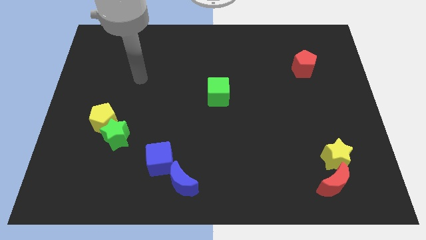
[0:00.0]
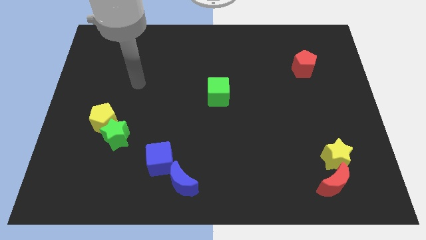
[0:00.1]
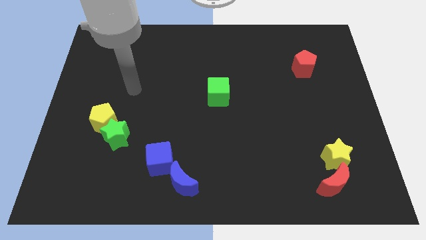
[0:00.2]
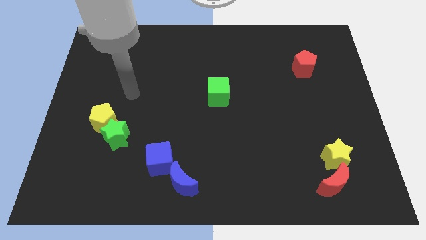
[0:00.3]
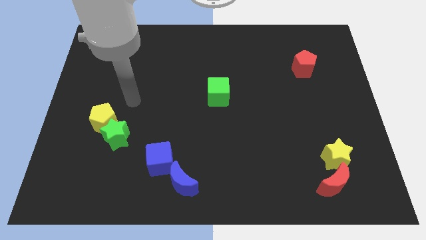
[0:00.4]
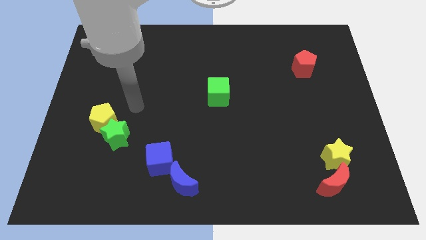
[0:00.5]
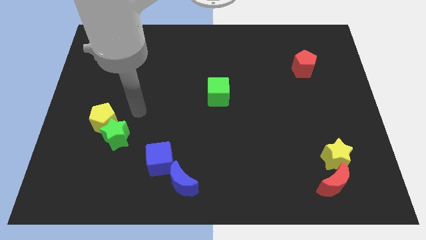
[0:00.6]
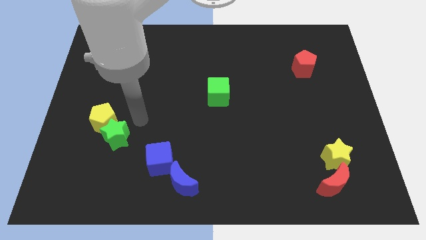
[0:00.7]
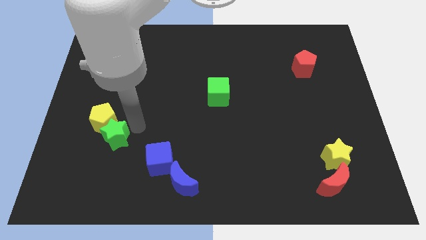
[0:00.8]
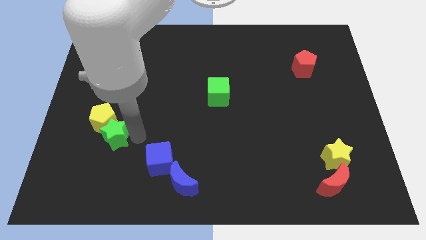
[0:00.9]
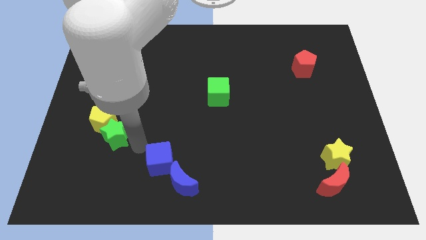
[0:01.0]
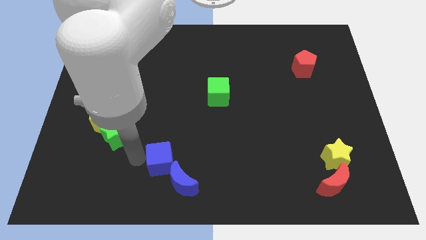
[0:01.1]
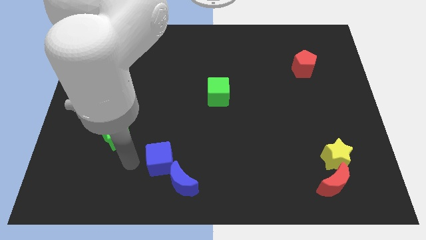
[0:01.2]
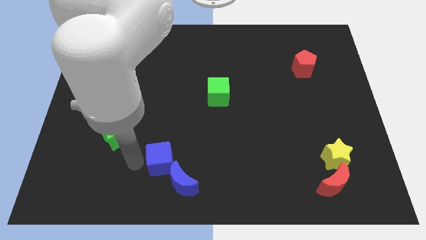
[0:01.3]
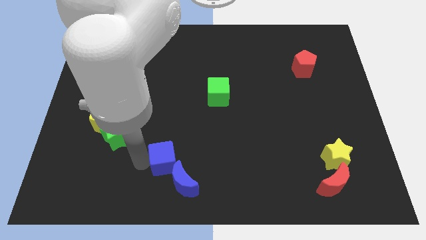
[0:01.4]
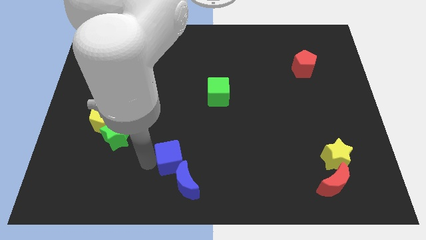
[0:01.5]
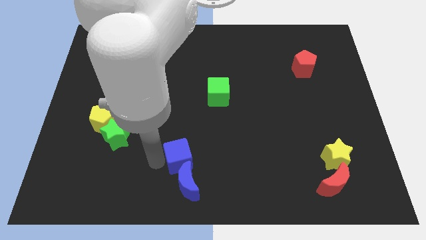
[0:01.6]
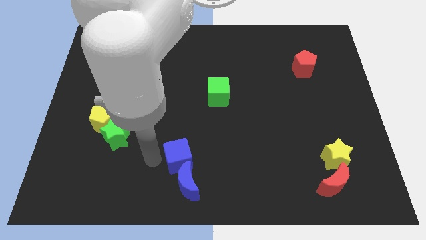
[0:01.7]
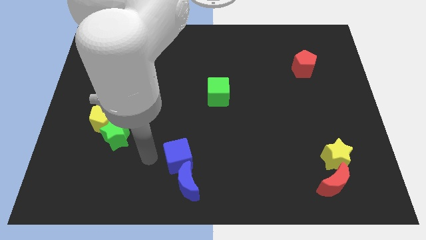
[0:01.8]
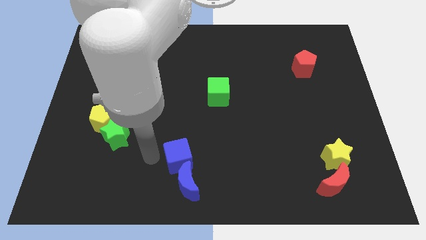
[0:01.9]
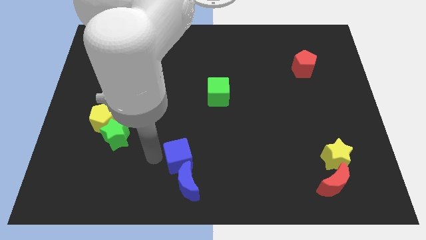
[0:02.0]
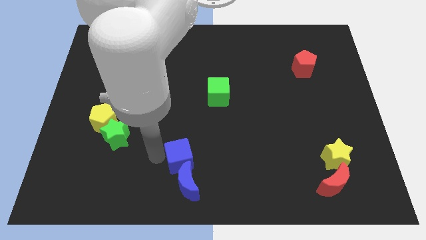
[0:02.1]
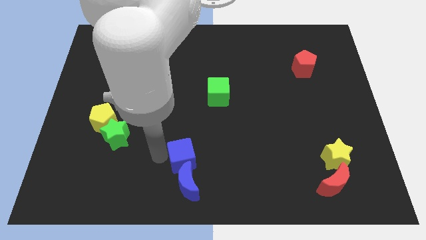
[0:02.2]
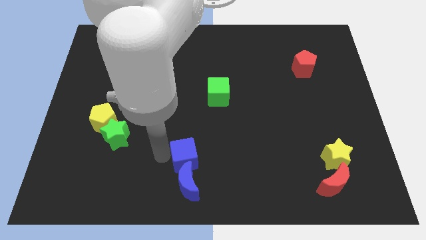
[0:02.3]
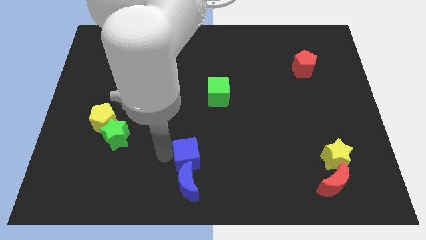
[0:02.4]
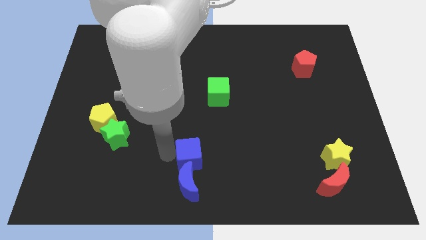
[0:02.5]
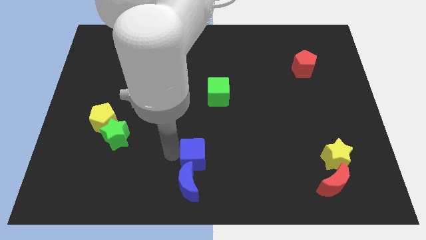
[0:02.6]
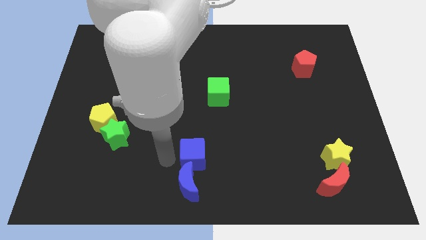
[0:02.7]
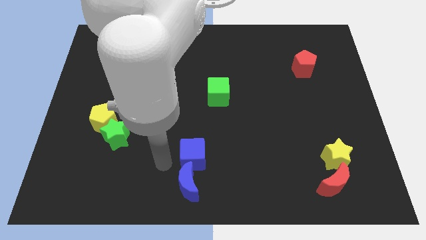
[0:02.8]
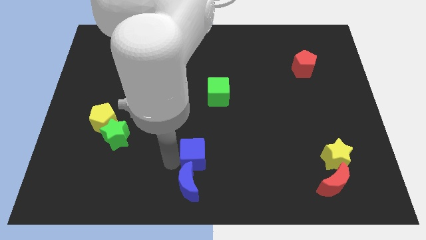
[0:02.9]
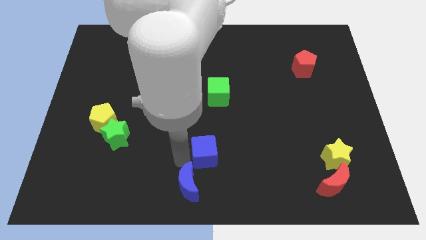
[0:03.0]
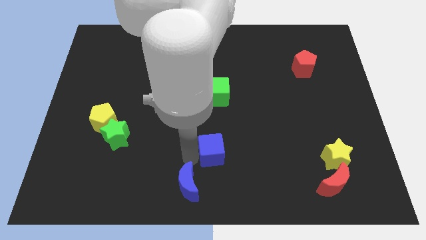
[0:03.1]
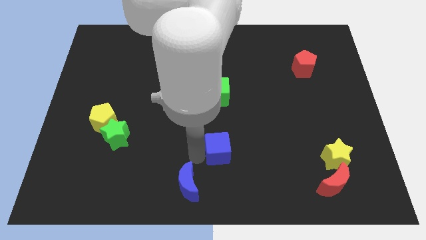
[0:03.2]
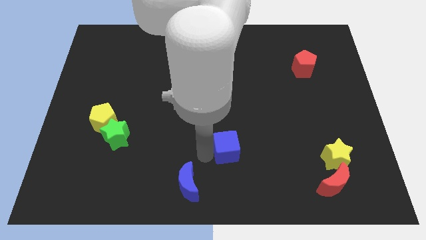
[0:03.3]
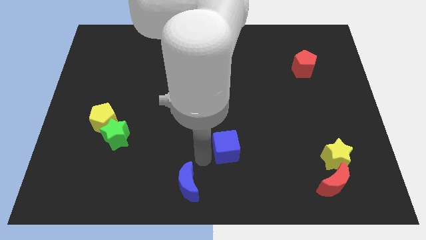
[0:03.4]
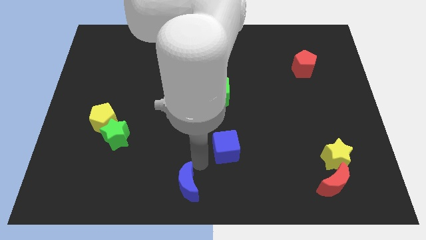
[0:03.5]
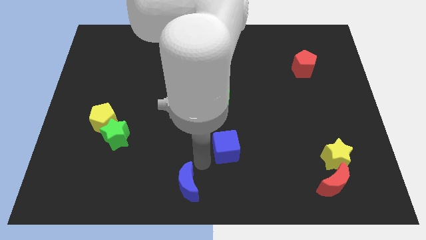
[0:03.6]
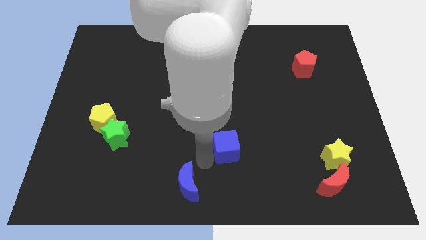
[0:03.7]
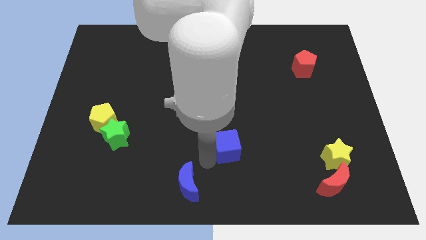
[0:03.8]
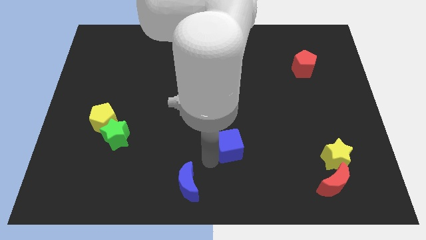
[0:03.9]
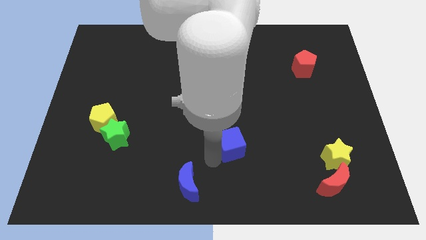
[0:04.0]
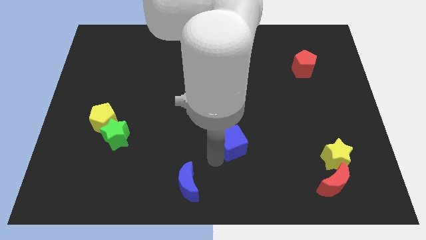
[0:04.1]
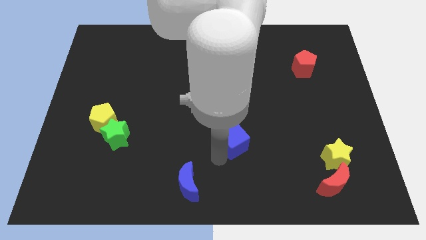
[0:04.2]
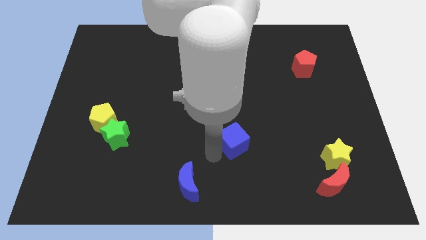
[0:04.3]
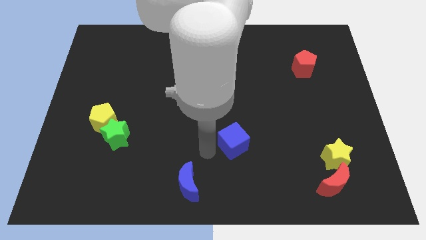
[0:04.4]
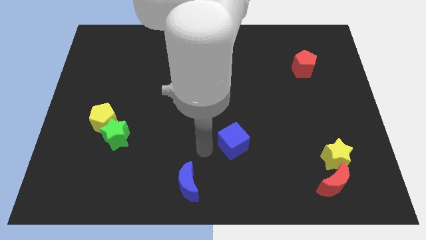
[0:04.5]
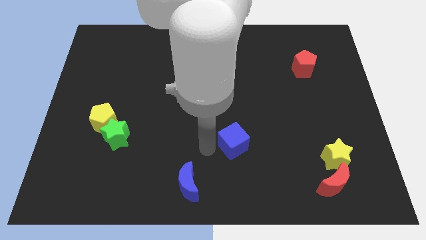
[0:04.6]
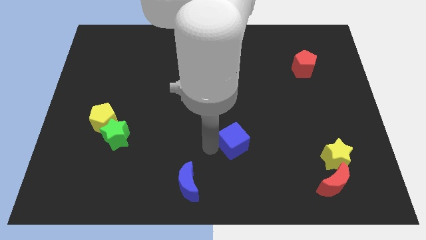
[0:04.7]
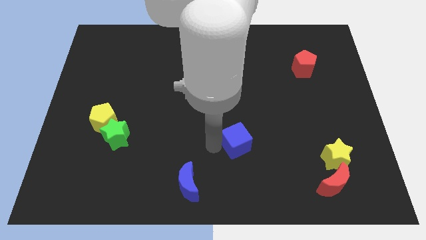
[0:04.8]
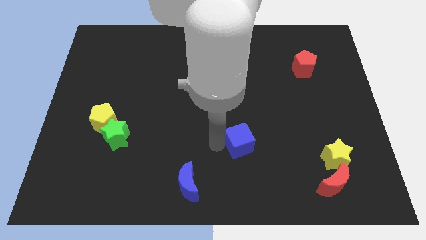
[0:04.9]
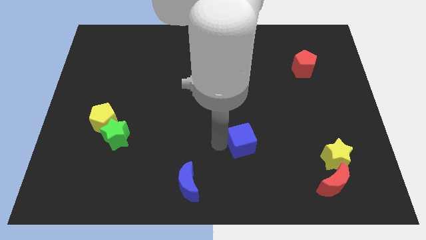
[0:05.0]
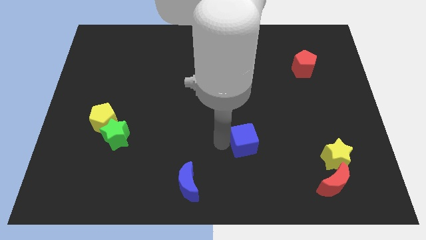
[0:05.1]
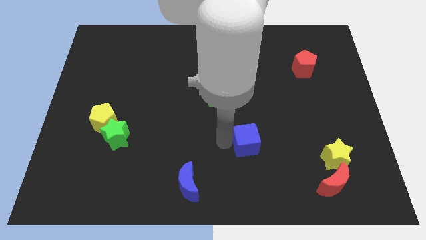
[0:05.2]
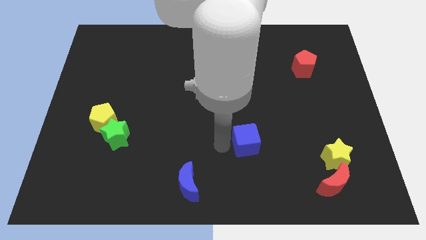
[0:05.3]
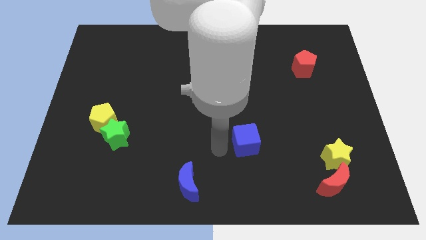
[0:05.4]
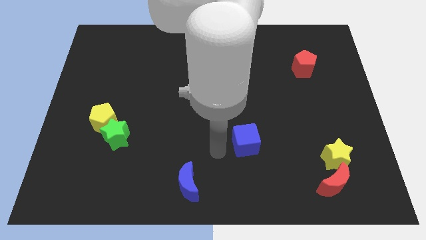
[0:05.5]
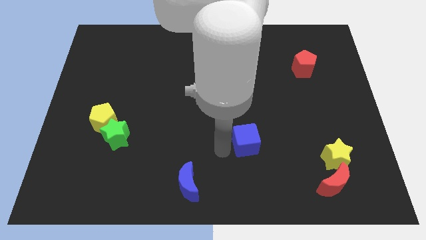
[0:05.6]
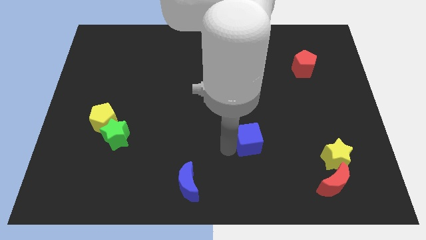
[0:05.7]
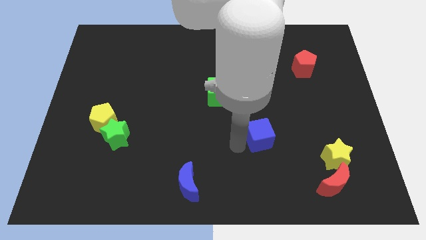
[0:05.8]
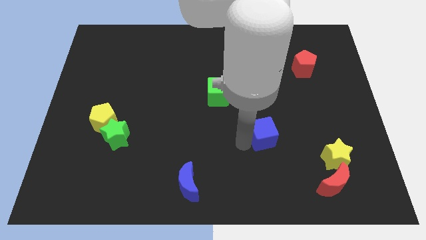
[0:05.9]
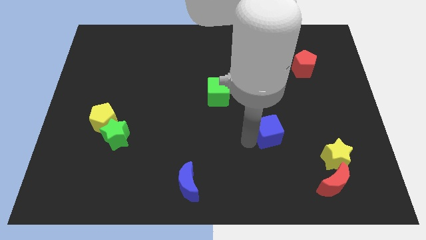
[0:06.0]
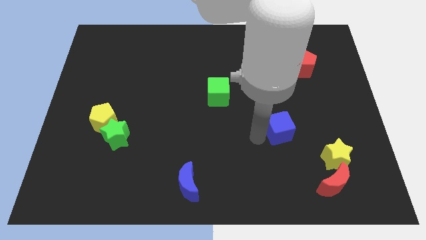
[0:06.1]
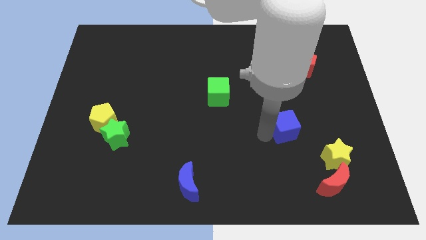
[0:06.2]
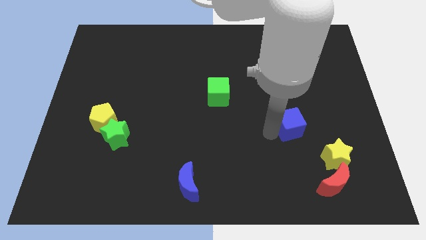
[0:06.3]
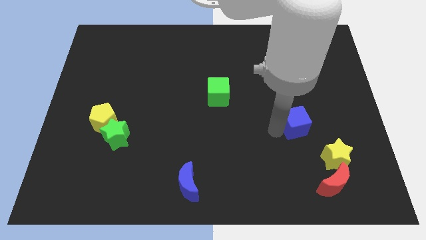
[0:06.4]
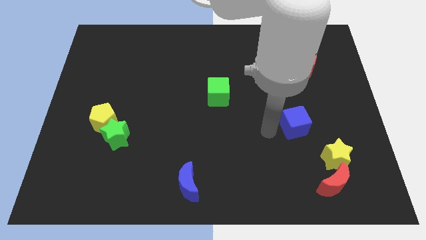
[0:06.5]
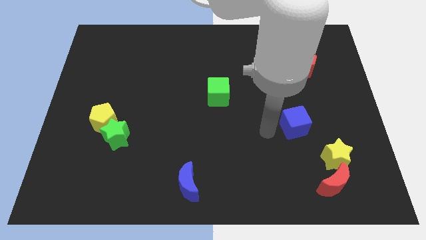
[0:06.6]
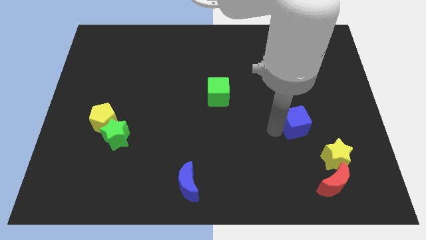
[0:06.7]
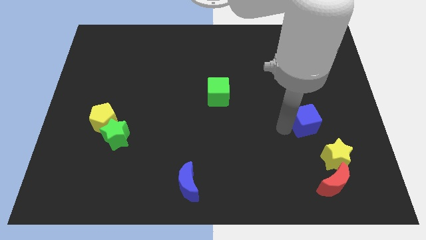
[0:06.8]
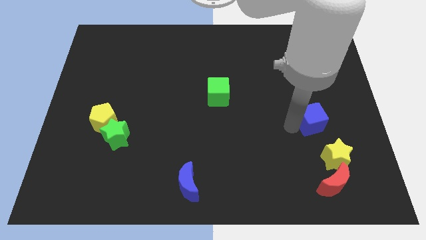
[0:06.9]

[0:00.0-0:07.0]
put the blue cube to the top side of the yellow star

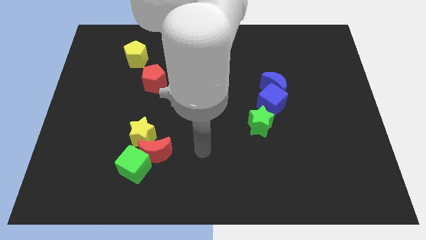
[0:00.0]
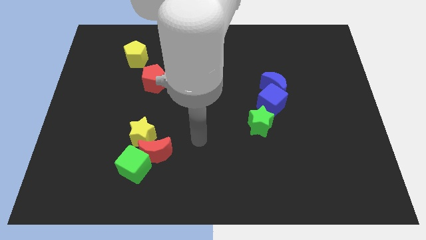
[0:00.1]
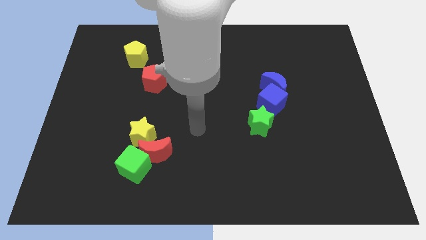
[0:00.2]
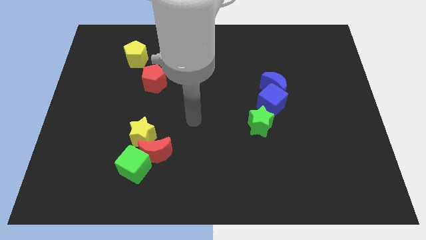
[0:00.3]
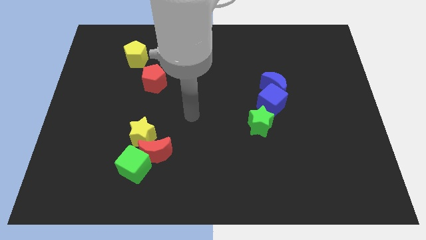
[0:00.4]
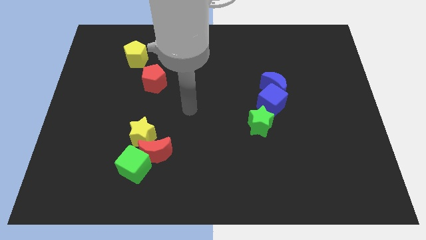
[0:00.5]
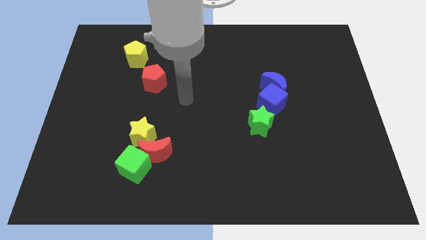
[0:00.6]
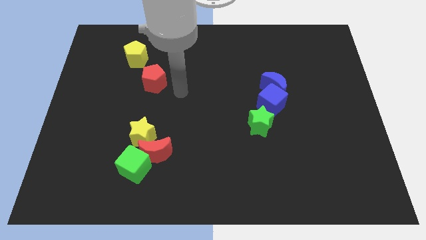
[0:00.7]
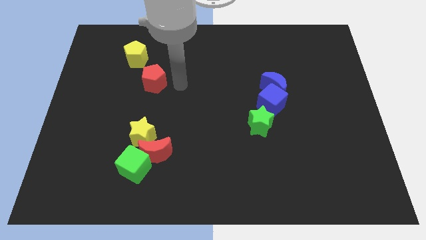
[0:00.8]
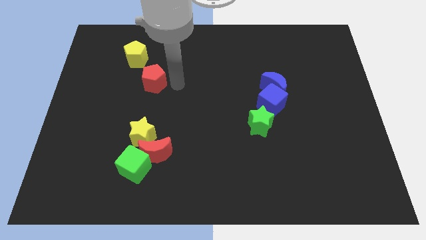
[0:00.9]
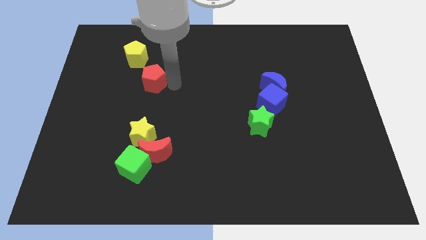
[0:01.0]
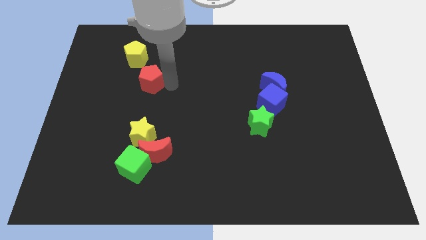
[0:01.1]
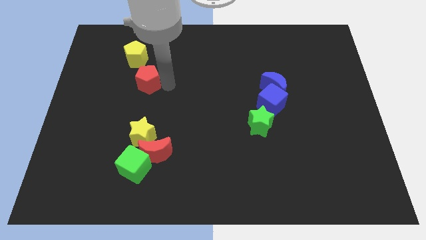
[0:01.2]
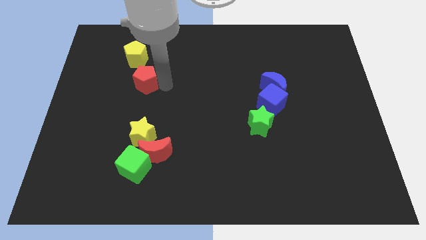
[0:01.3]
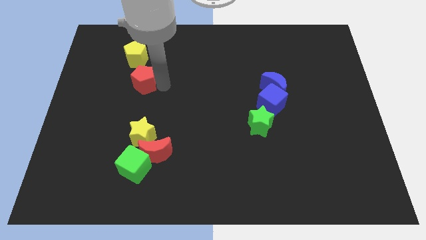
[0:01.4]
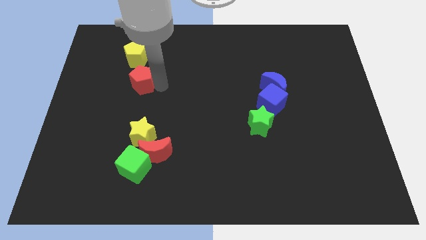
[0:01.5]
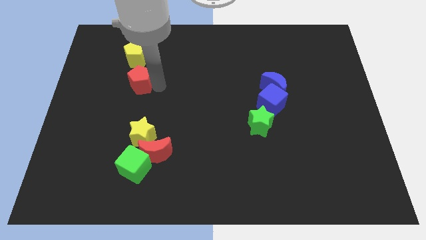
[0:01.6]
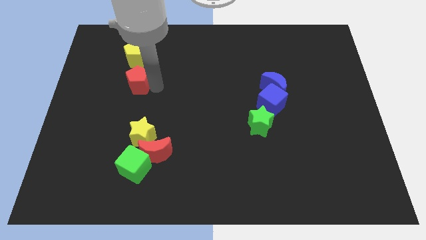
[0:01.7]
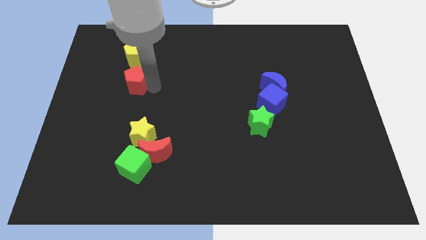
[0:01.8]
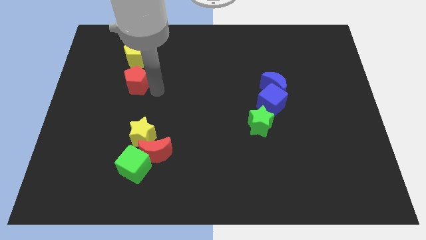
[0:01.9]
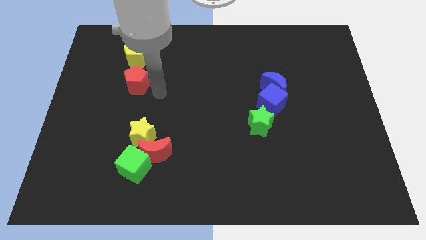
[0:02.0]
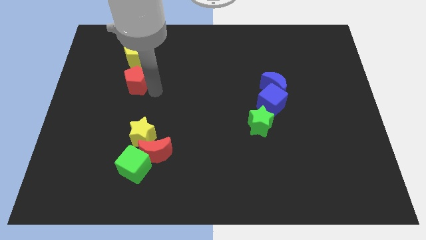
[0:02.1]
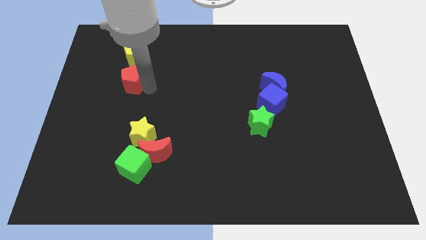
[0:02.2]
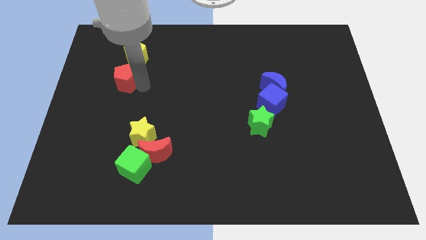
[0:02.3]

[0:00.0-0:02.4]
put the red pentagon to the bottom left side of the yellow pentagon
